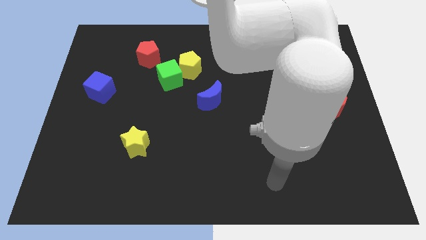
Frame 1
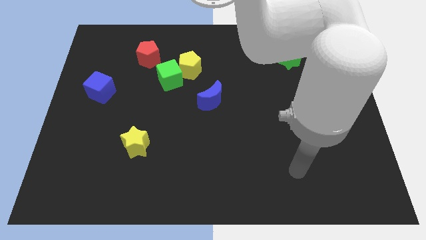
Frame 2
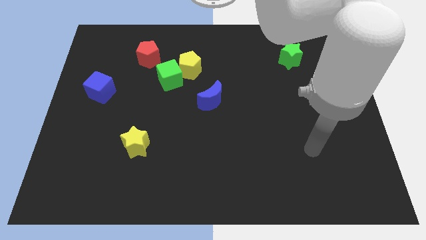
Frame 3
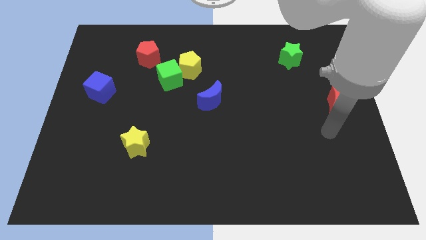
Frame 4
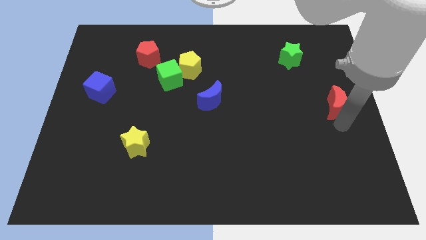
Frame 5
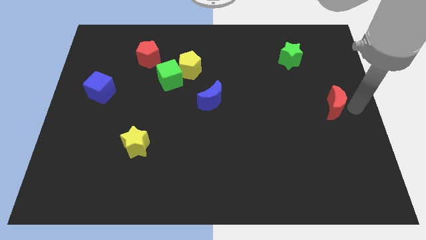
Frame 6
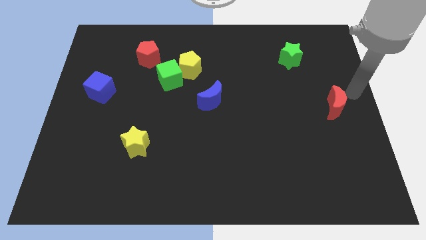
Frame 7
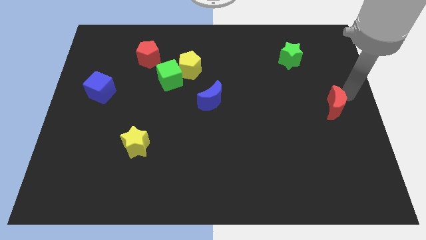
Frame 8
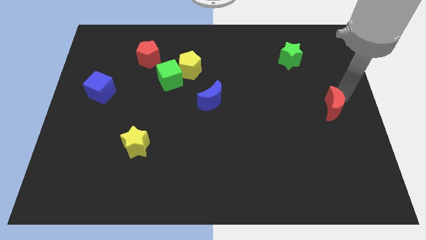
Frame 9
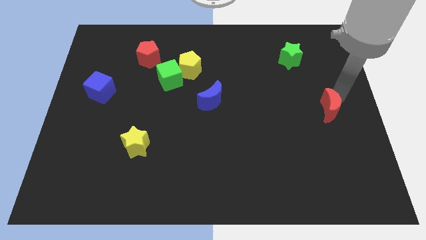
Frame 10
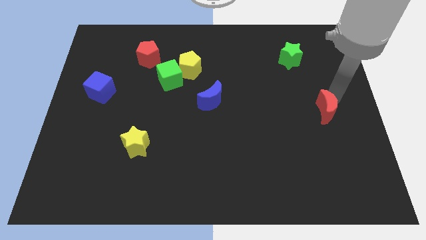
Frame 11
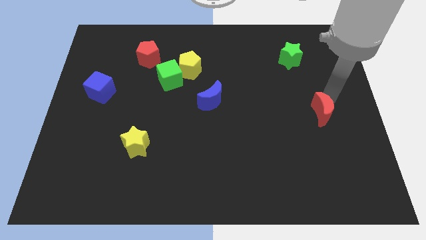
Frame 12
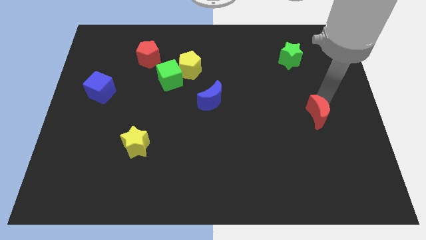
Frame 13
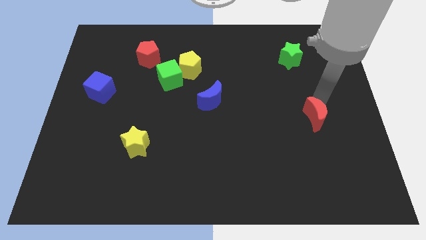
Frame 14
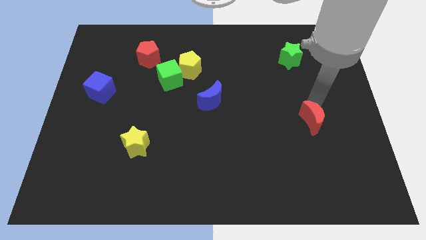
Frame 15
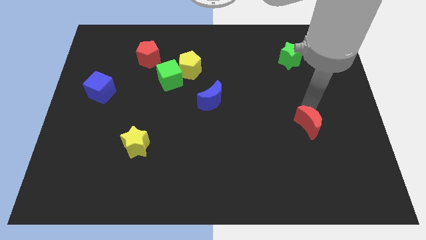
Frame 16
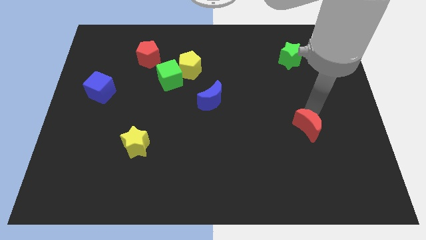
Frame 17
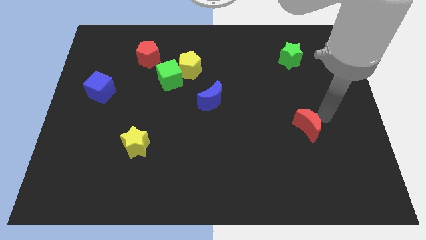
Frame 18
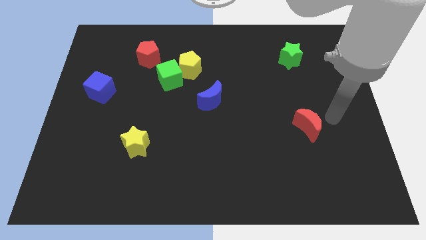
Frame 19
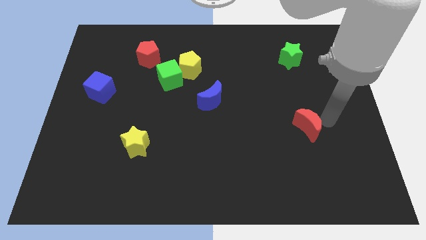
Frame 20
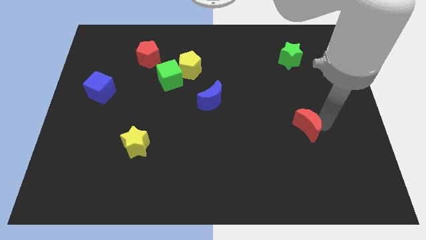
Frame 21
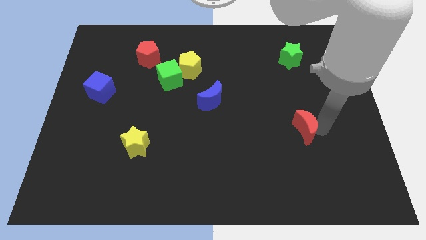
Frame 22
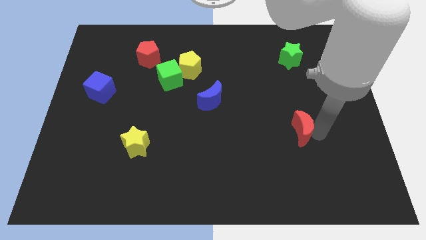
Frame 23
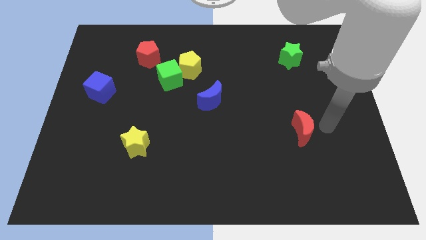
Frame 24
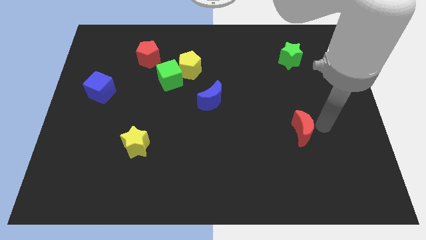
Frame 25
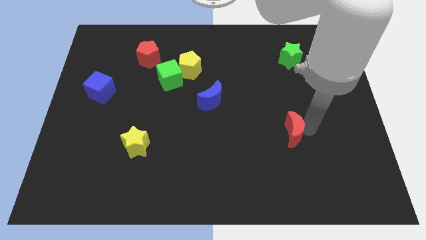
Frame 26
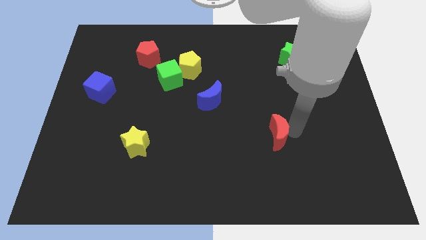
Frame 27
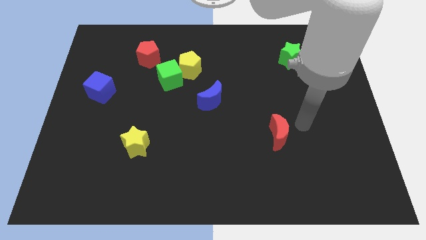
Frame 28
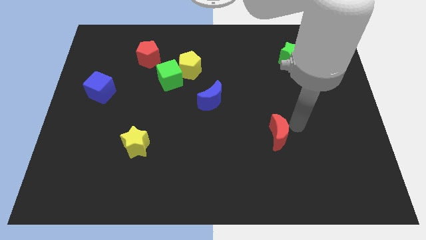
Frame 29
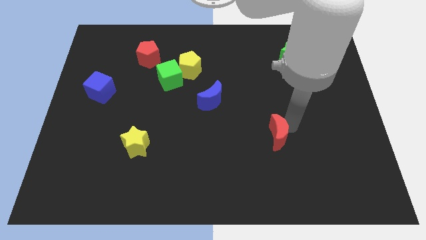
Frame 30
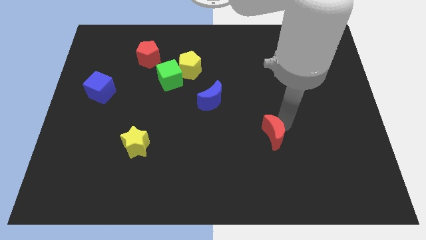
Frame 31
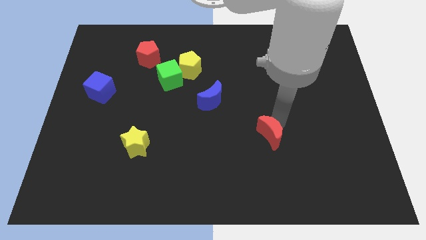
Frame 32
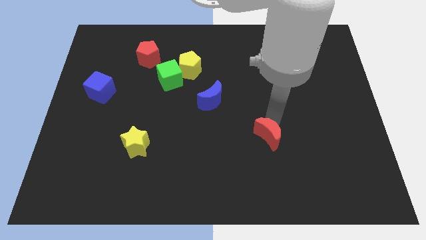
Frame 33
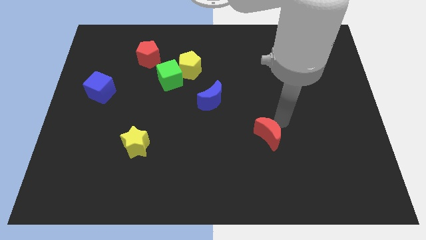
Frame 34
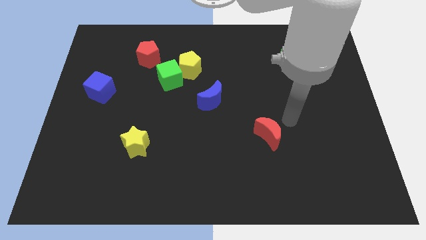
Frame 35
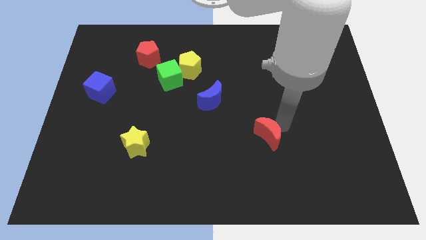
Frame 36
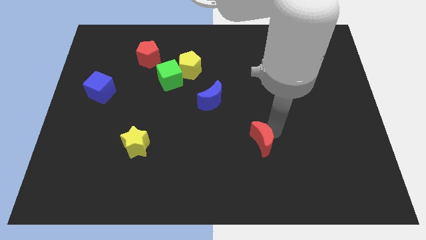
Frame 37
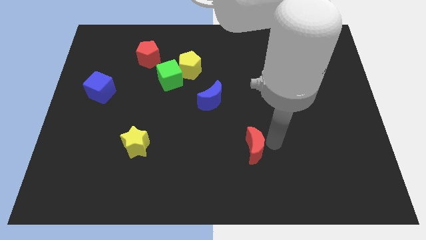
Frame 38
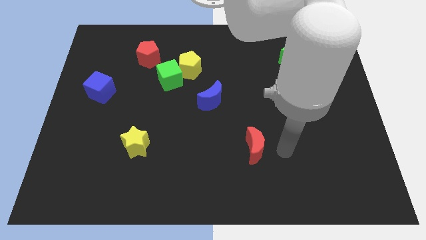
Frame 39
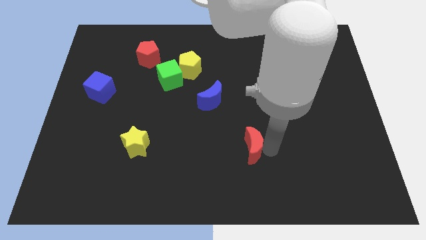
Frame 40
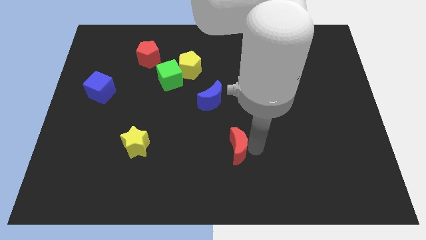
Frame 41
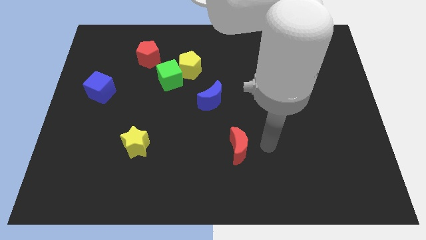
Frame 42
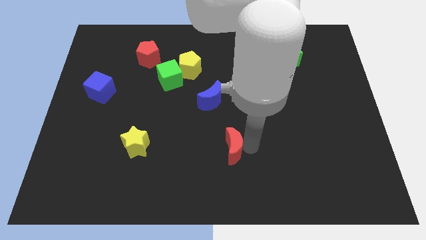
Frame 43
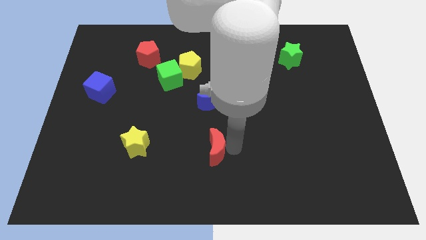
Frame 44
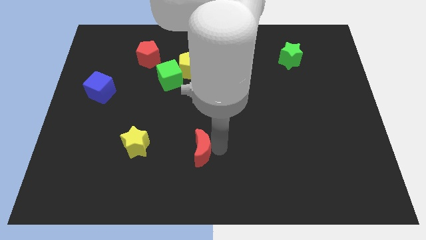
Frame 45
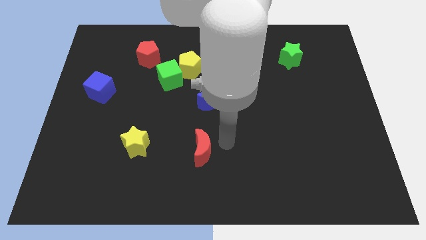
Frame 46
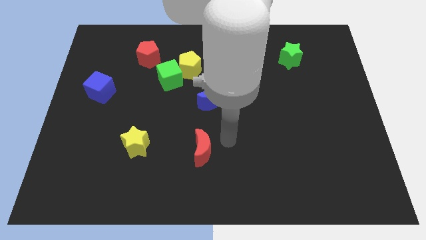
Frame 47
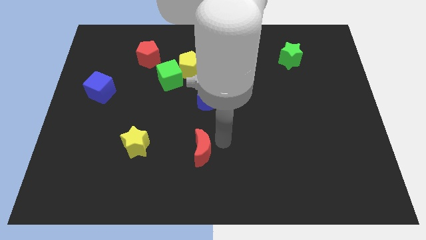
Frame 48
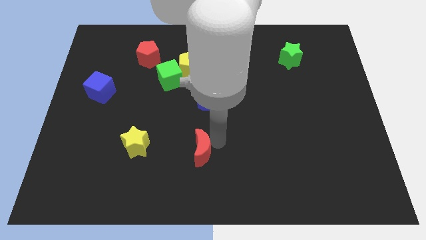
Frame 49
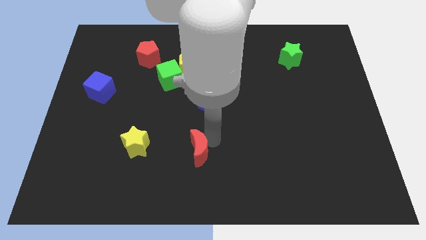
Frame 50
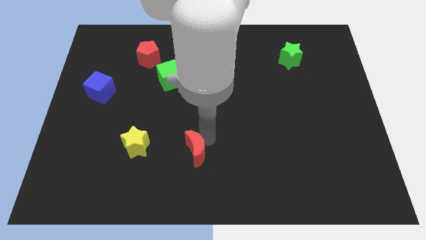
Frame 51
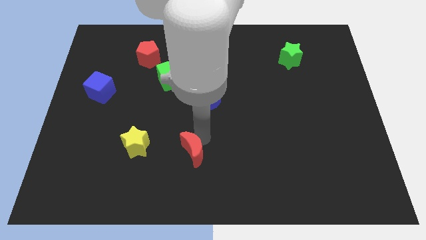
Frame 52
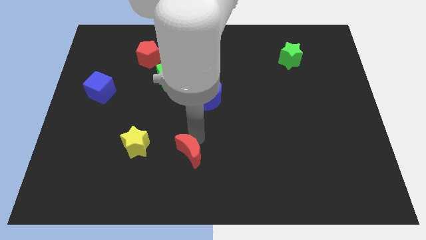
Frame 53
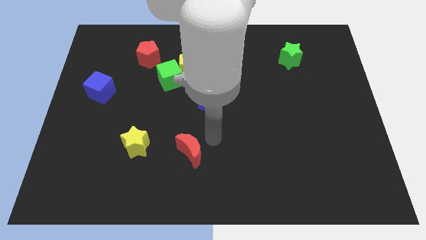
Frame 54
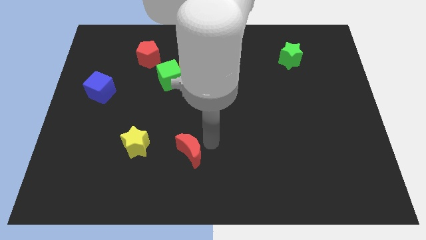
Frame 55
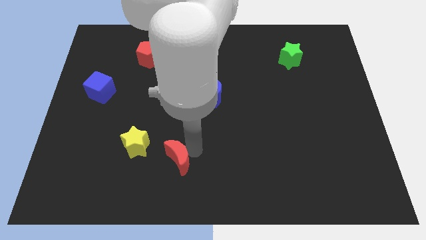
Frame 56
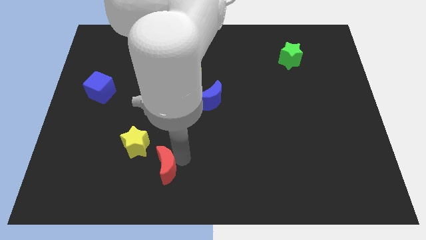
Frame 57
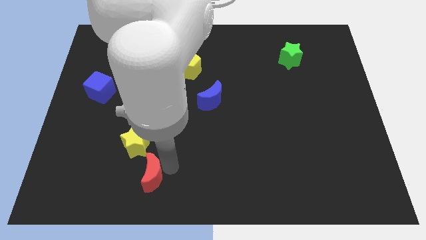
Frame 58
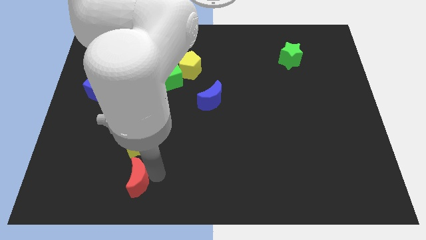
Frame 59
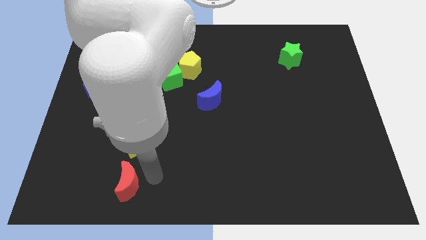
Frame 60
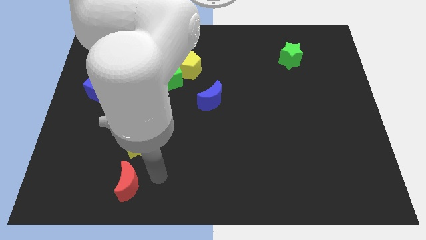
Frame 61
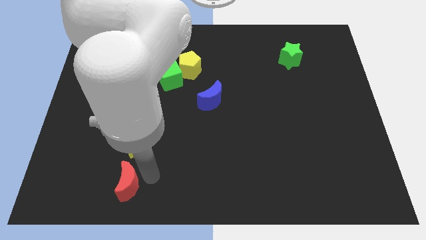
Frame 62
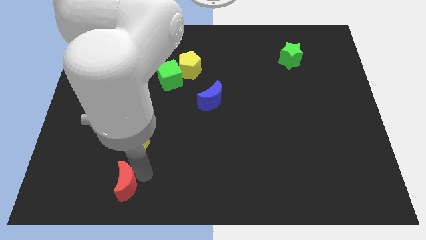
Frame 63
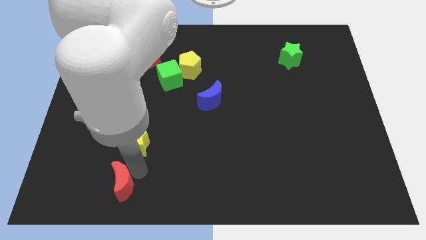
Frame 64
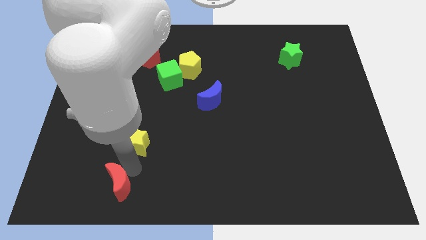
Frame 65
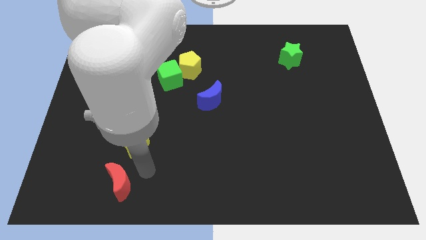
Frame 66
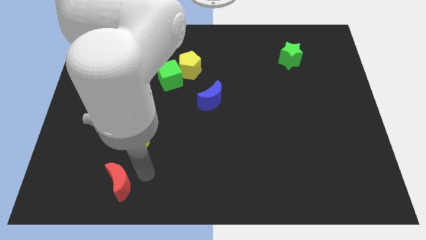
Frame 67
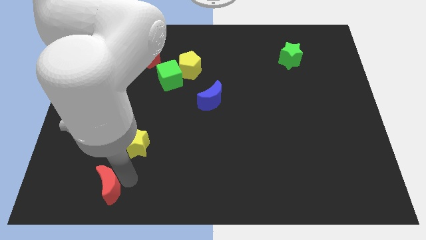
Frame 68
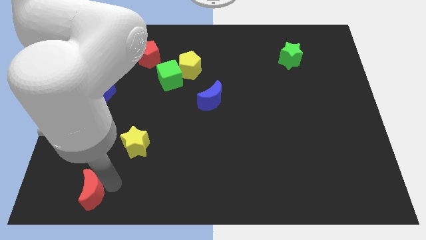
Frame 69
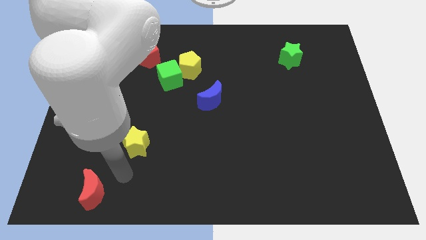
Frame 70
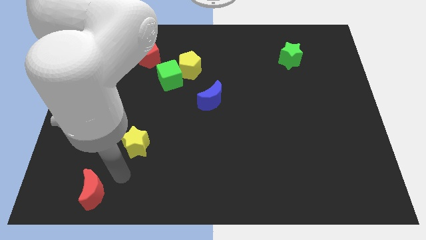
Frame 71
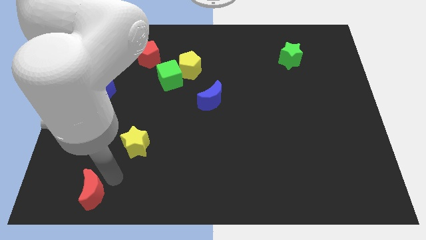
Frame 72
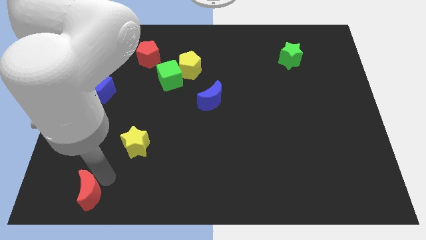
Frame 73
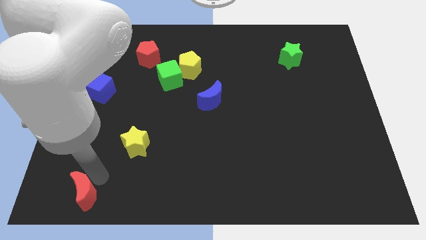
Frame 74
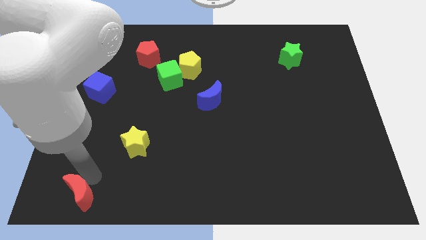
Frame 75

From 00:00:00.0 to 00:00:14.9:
put the red moon to the lower left corner
